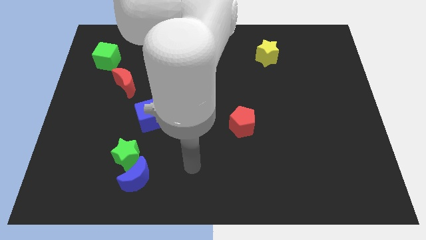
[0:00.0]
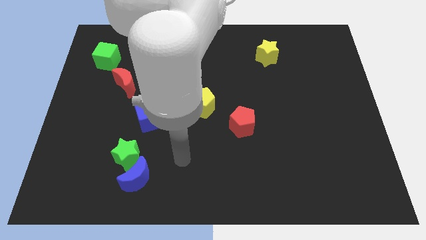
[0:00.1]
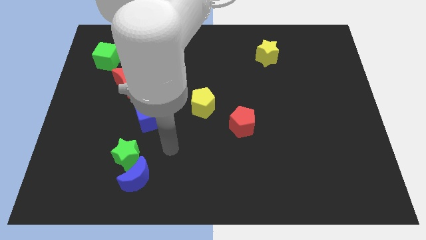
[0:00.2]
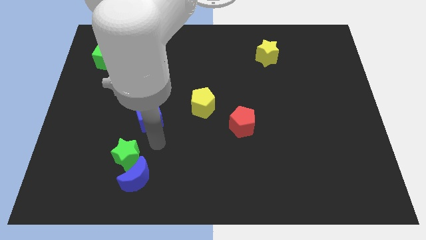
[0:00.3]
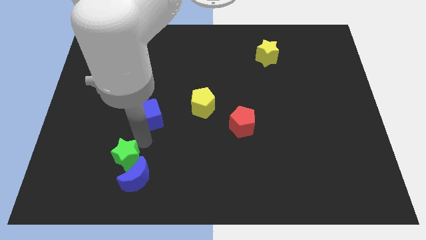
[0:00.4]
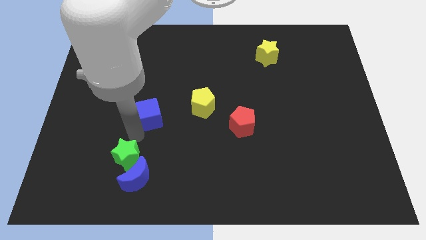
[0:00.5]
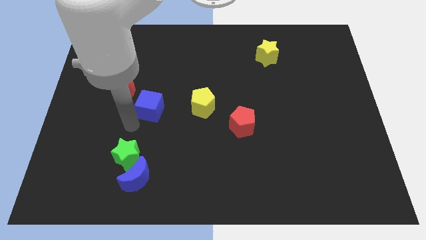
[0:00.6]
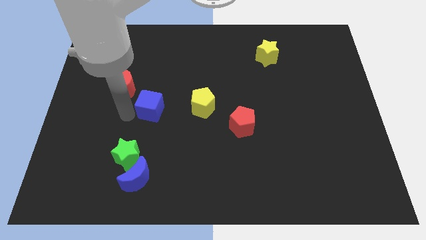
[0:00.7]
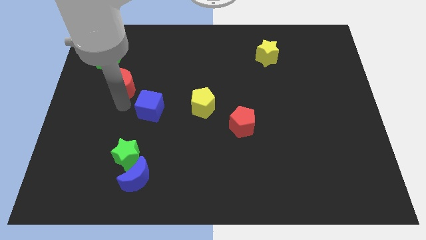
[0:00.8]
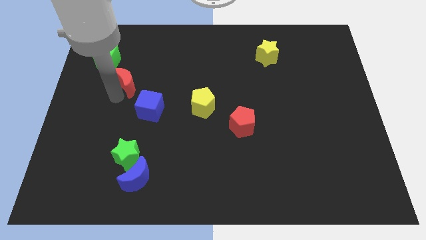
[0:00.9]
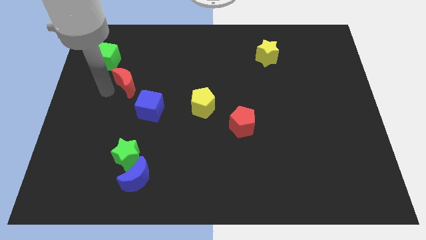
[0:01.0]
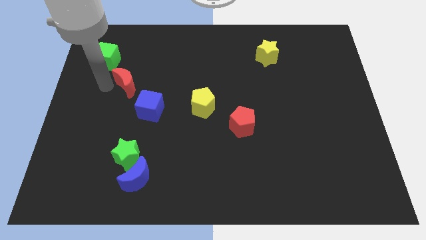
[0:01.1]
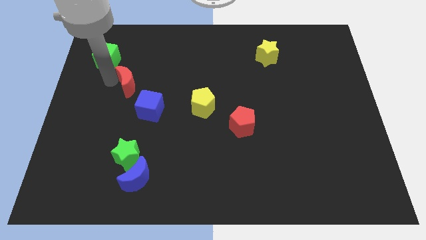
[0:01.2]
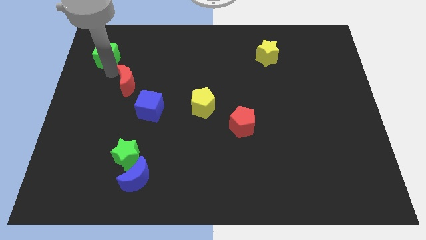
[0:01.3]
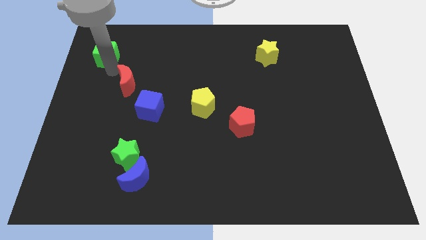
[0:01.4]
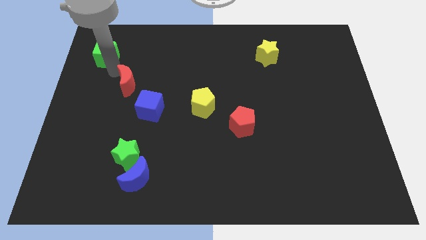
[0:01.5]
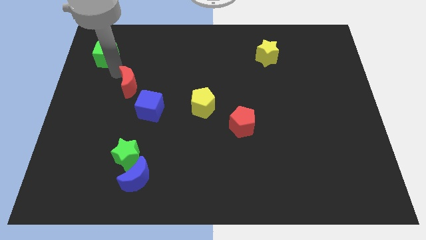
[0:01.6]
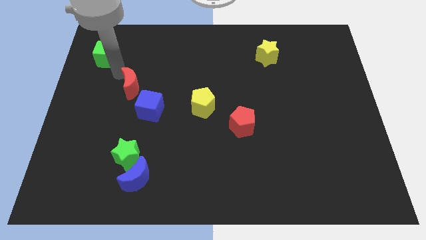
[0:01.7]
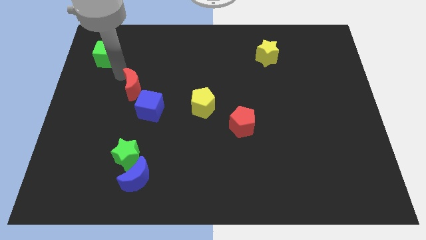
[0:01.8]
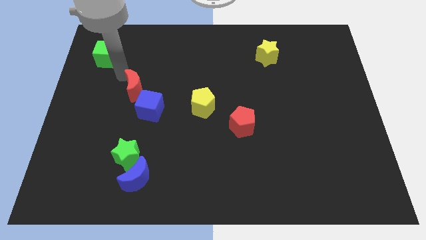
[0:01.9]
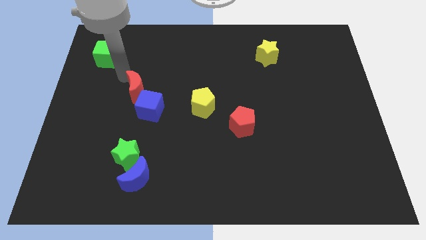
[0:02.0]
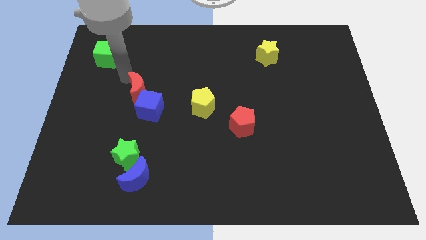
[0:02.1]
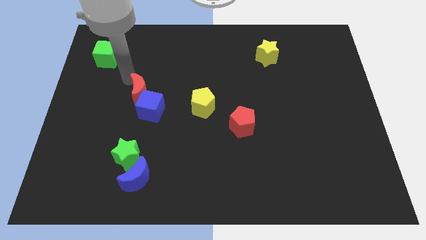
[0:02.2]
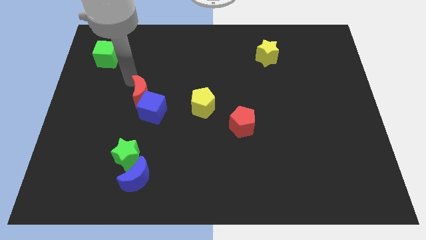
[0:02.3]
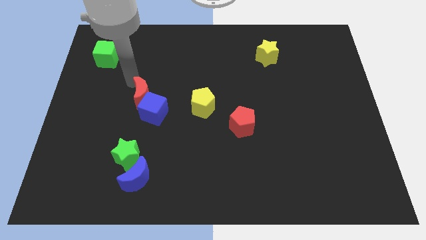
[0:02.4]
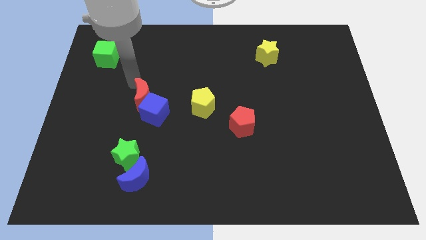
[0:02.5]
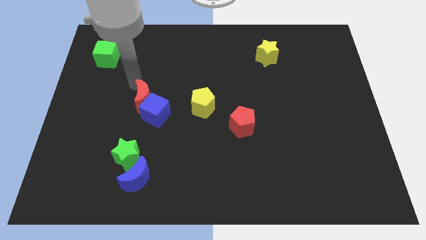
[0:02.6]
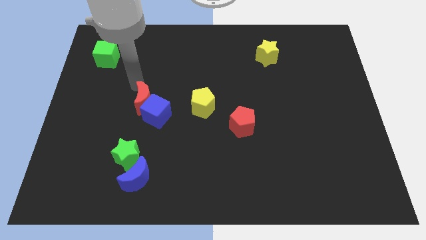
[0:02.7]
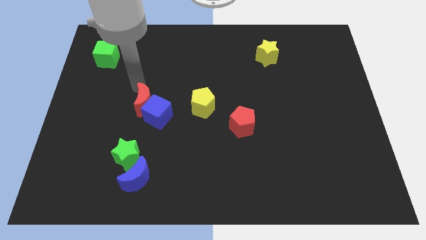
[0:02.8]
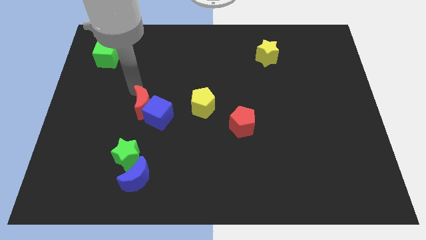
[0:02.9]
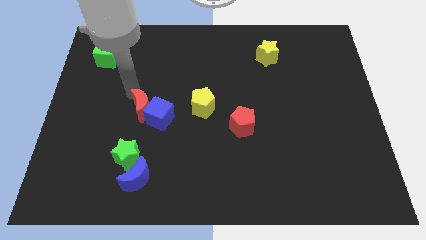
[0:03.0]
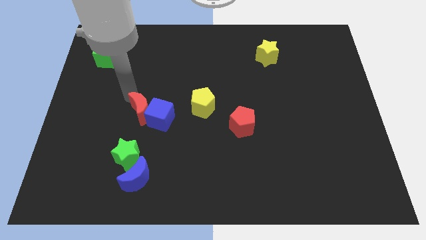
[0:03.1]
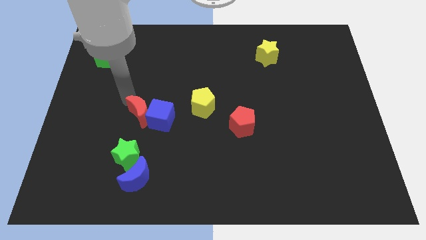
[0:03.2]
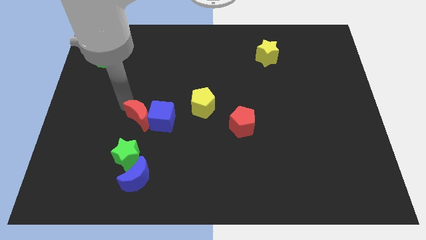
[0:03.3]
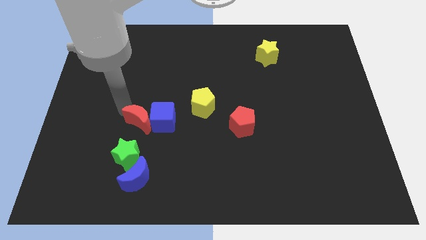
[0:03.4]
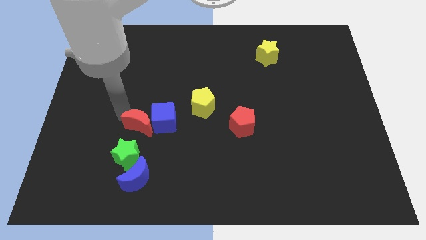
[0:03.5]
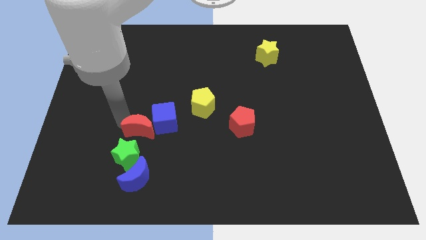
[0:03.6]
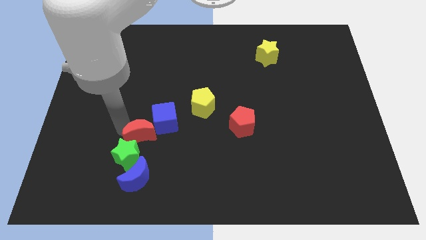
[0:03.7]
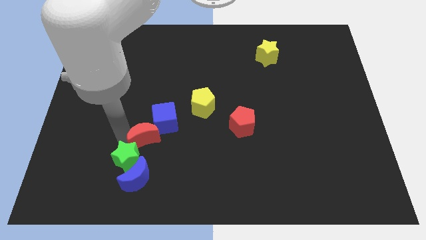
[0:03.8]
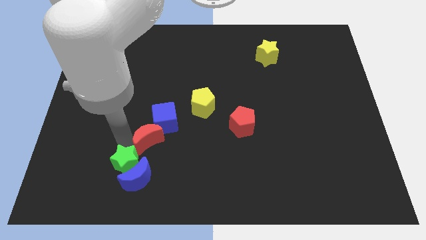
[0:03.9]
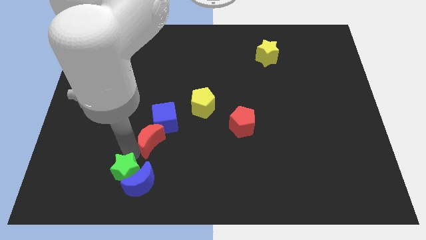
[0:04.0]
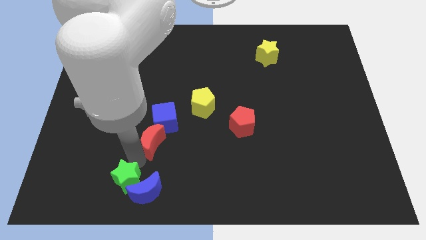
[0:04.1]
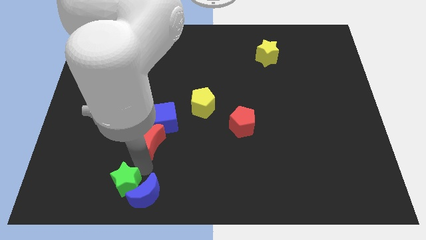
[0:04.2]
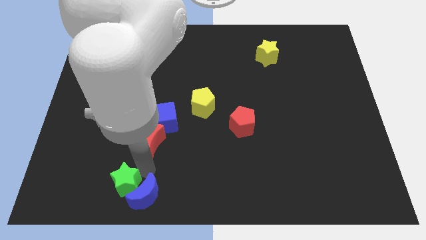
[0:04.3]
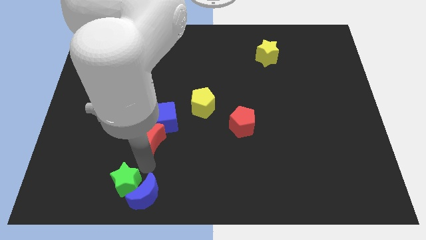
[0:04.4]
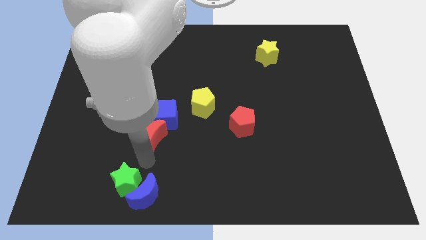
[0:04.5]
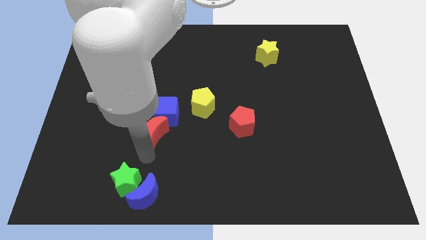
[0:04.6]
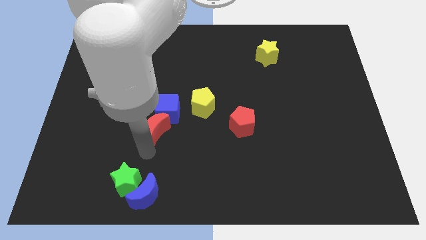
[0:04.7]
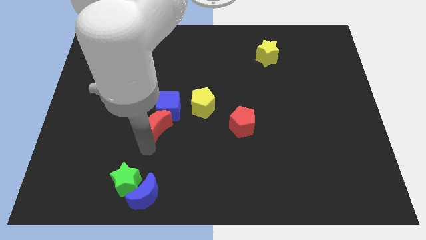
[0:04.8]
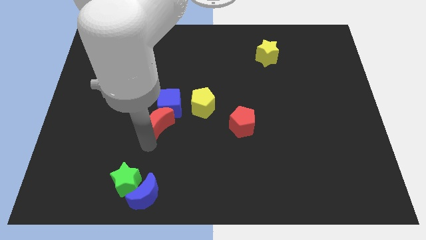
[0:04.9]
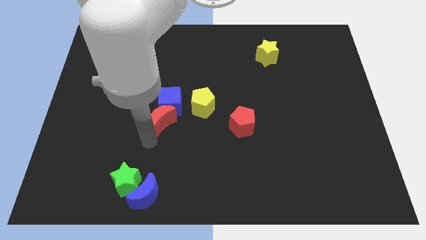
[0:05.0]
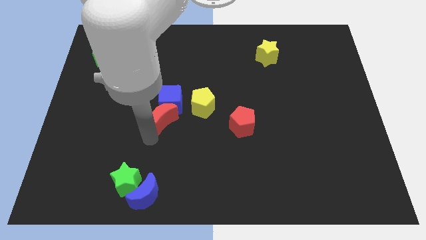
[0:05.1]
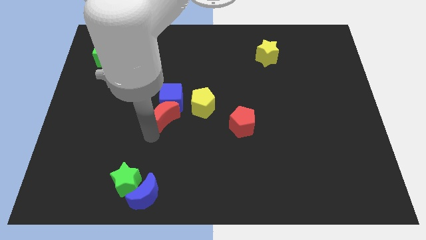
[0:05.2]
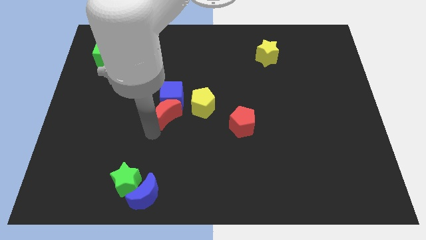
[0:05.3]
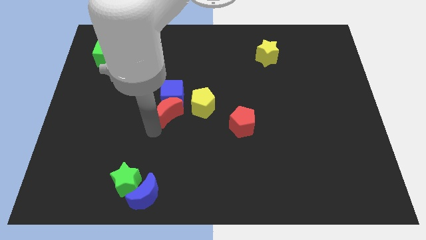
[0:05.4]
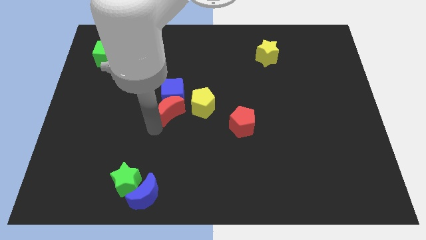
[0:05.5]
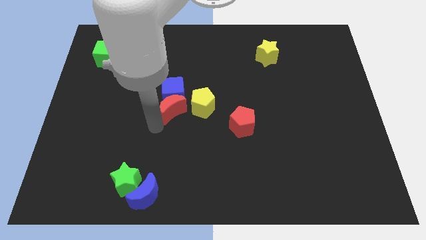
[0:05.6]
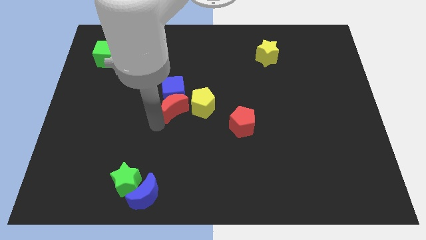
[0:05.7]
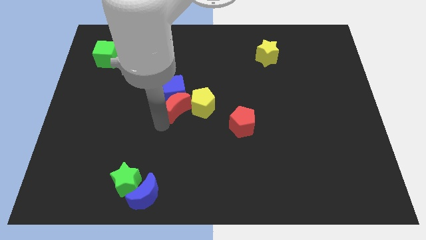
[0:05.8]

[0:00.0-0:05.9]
slide the red moon next to the yellow pentagon
